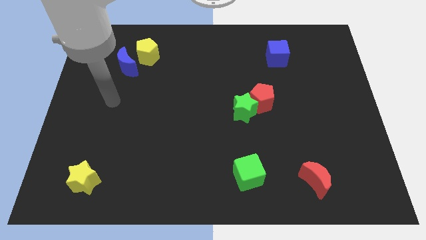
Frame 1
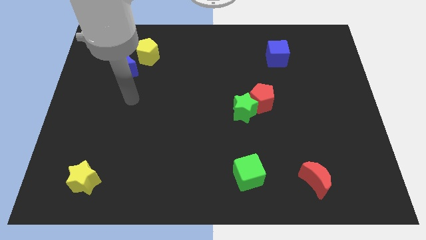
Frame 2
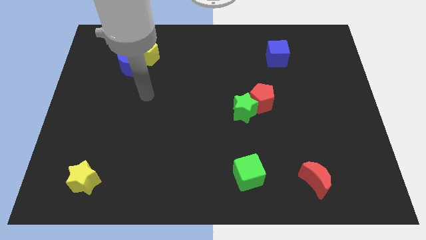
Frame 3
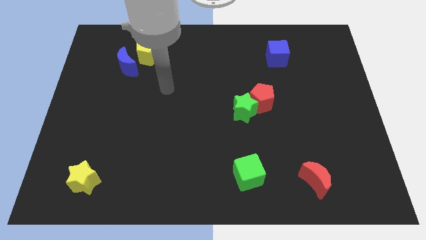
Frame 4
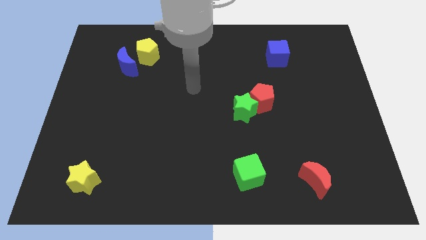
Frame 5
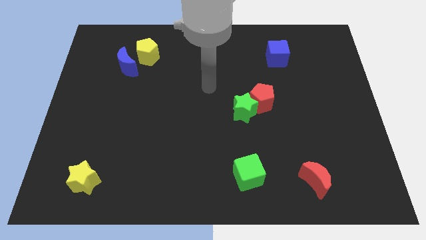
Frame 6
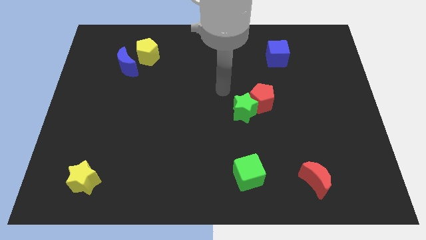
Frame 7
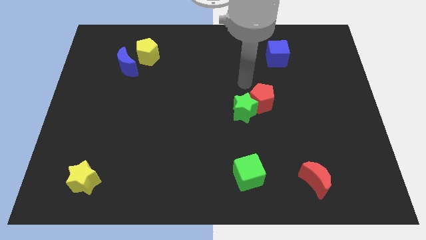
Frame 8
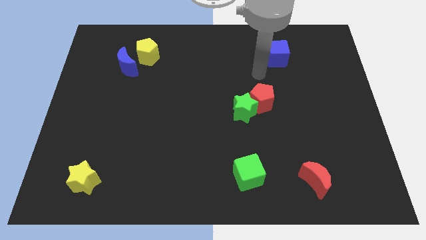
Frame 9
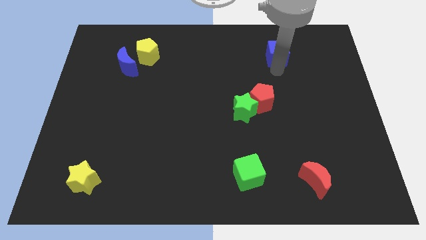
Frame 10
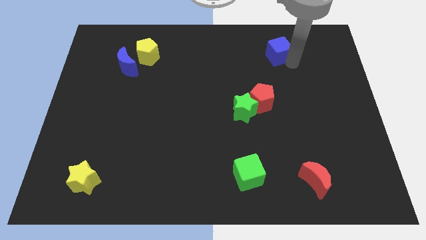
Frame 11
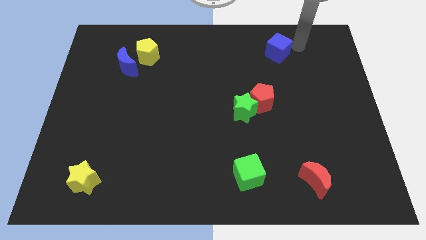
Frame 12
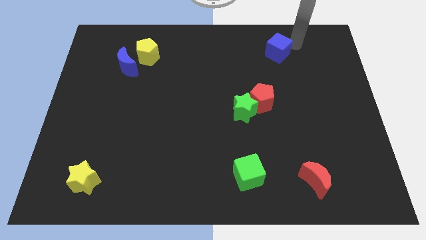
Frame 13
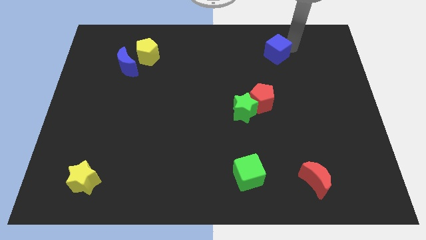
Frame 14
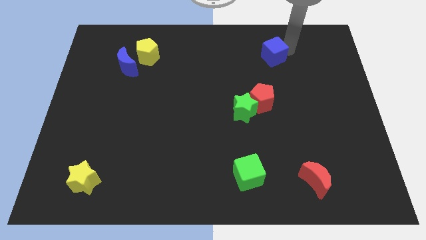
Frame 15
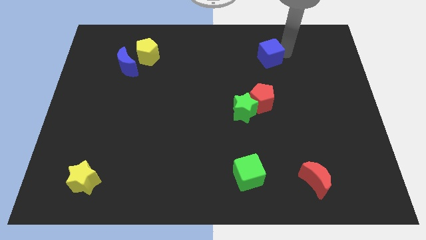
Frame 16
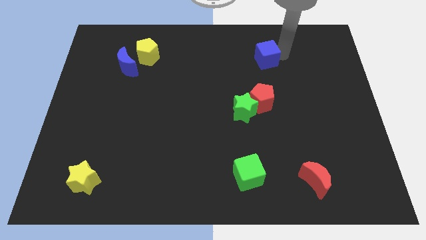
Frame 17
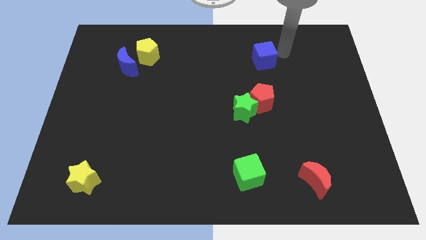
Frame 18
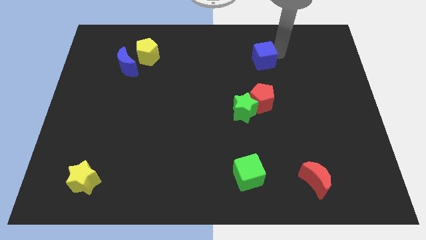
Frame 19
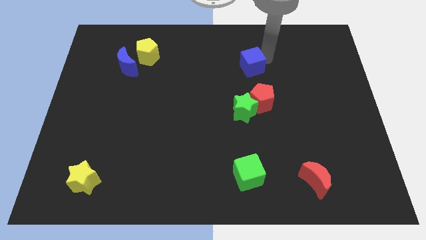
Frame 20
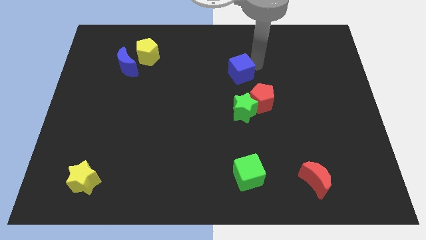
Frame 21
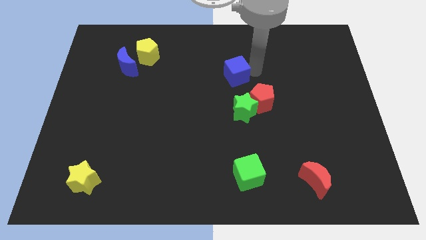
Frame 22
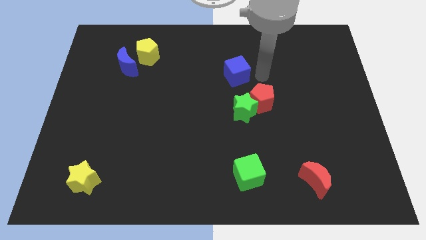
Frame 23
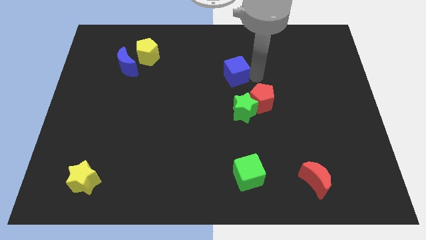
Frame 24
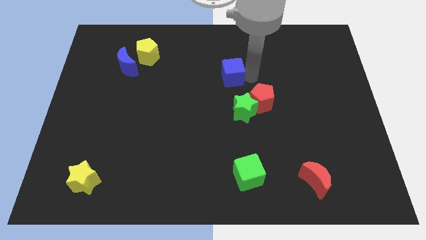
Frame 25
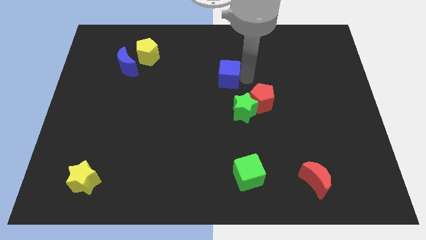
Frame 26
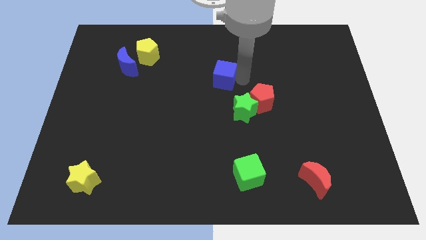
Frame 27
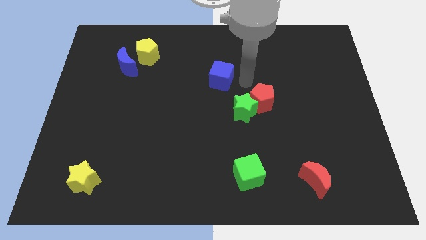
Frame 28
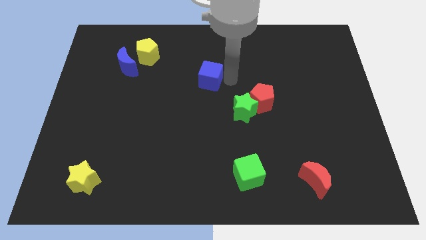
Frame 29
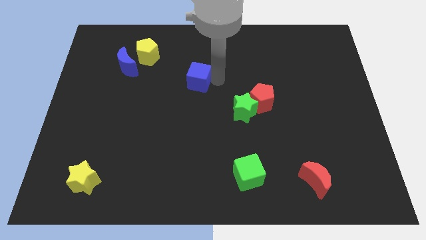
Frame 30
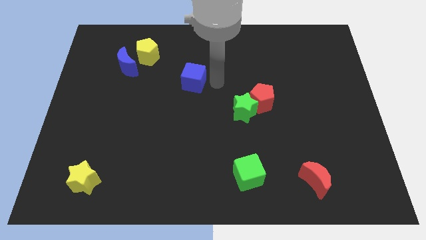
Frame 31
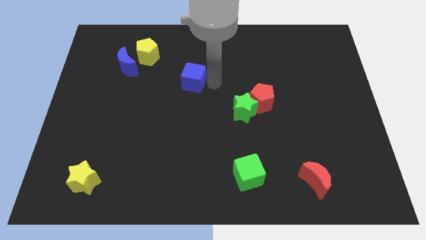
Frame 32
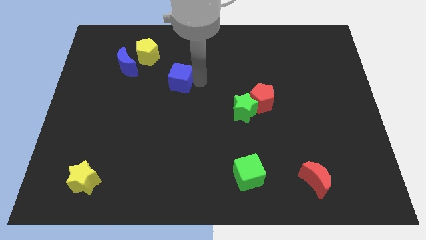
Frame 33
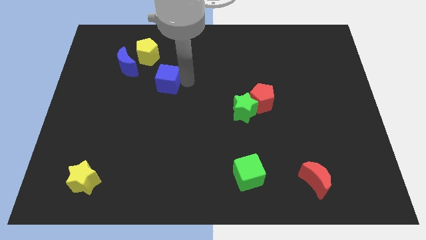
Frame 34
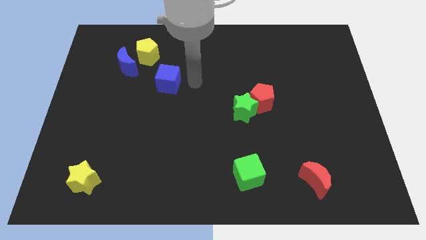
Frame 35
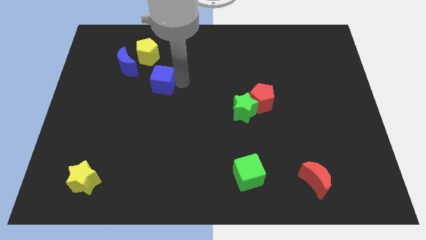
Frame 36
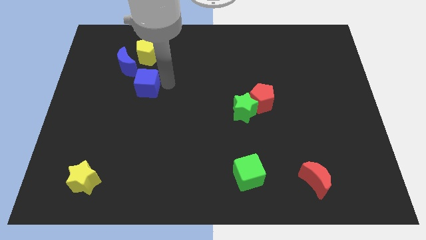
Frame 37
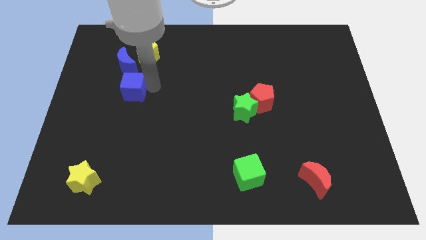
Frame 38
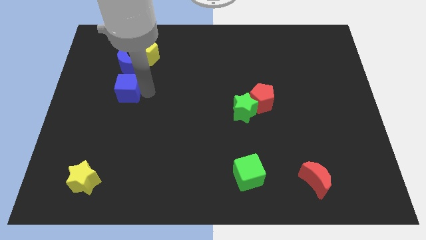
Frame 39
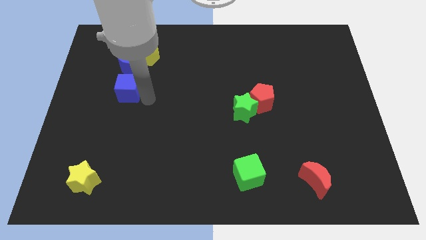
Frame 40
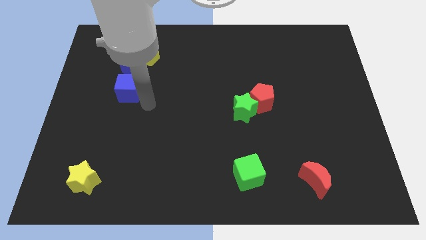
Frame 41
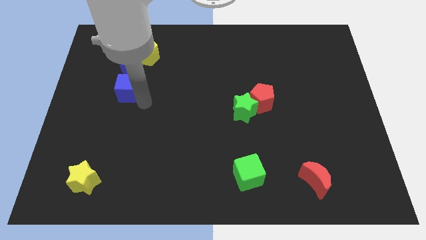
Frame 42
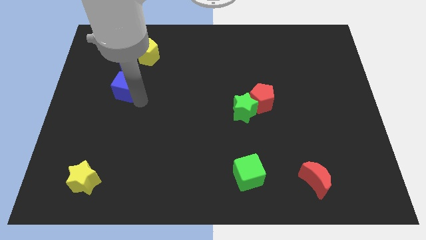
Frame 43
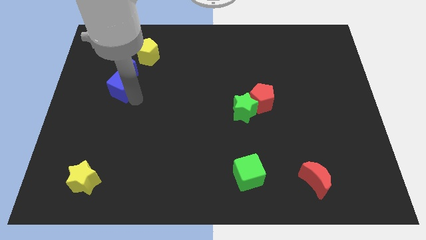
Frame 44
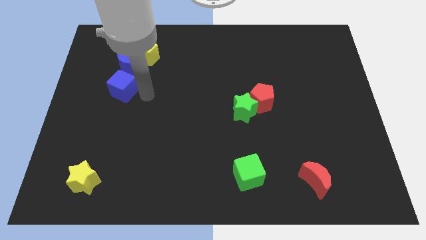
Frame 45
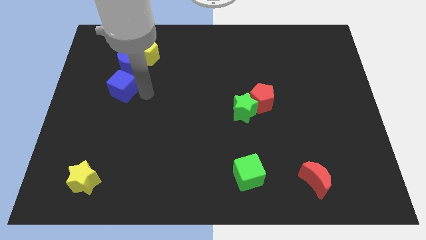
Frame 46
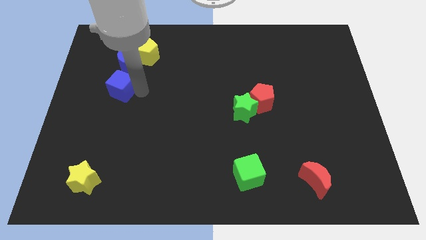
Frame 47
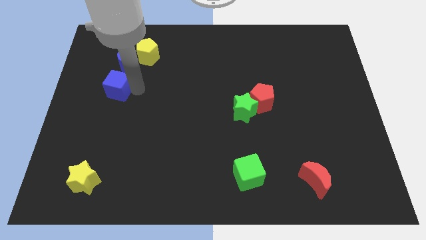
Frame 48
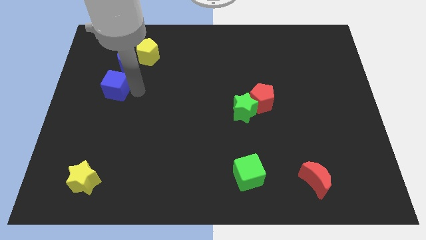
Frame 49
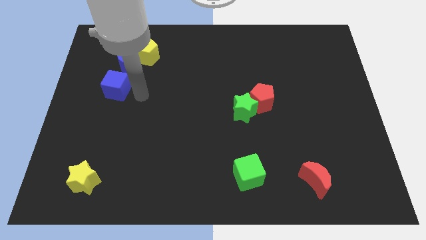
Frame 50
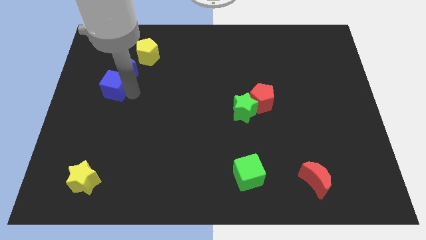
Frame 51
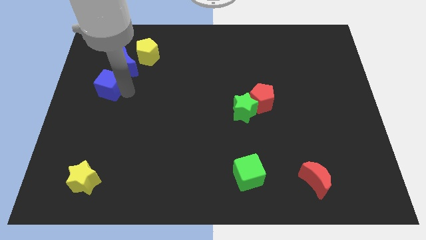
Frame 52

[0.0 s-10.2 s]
slide the blue cube to the left side of the board
